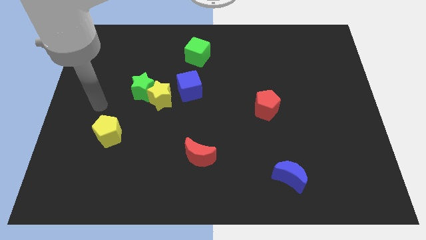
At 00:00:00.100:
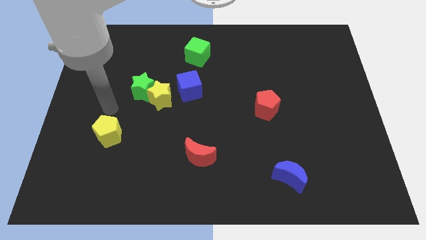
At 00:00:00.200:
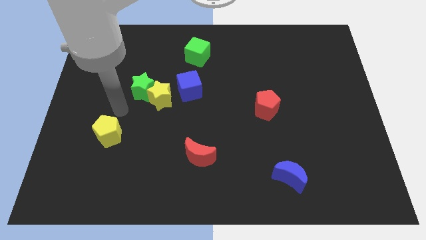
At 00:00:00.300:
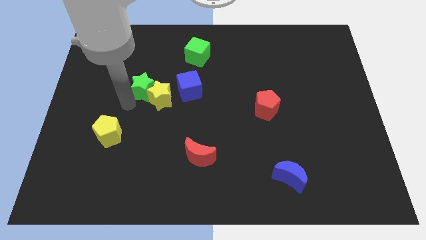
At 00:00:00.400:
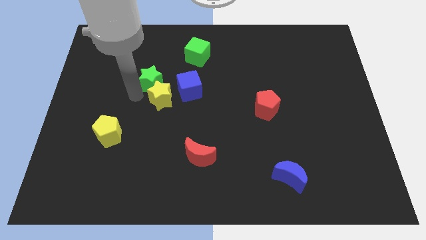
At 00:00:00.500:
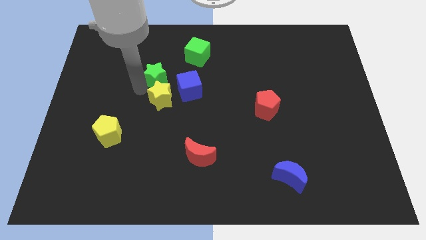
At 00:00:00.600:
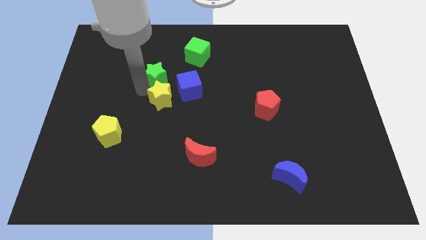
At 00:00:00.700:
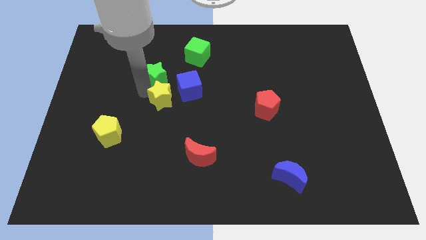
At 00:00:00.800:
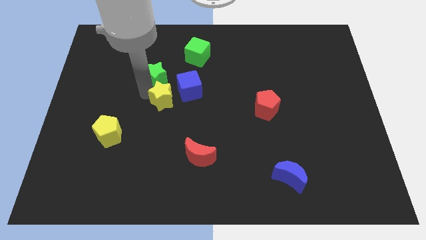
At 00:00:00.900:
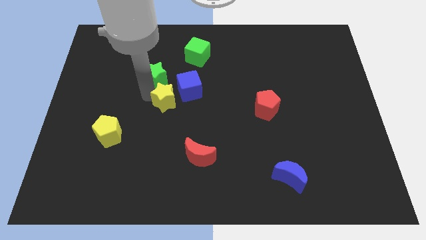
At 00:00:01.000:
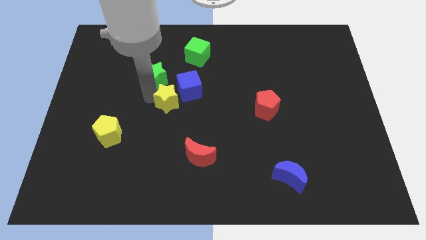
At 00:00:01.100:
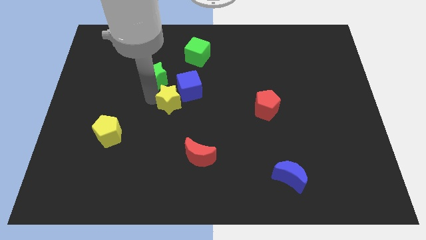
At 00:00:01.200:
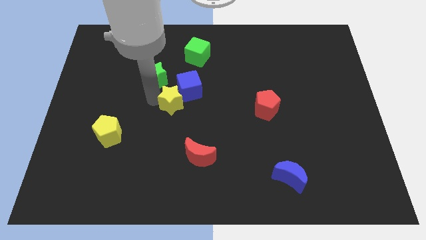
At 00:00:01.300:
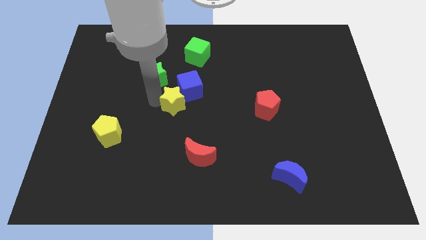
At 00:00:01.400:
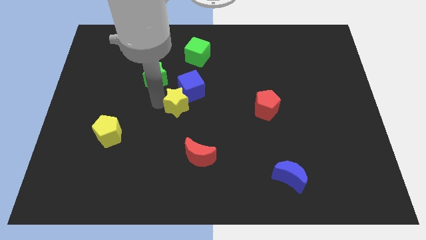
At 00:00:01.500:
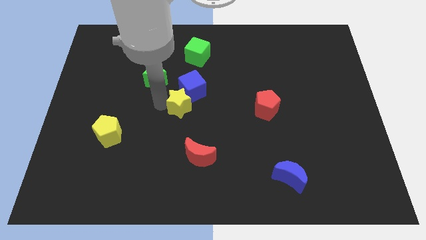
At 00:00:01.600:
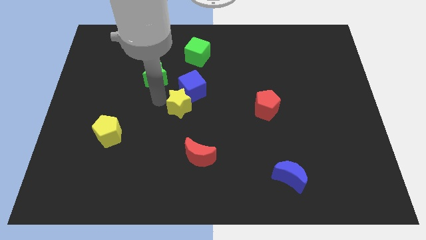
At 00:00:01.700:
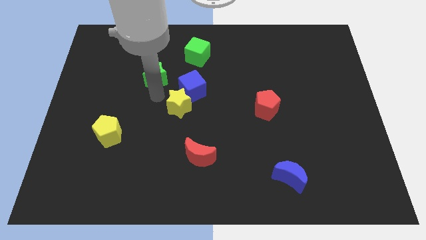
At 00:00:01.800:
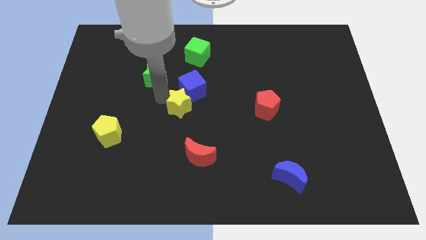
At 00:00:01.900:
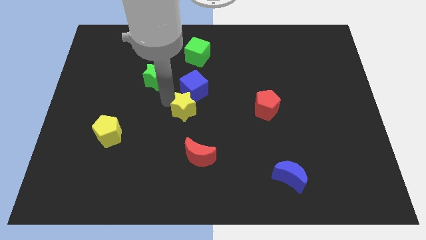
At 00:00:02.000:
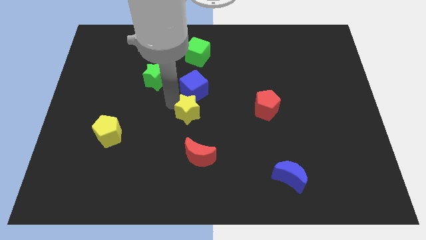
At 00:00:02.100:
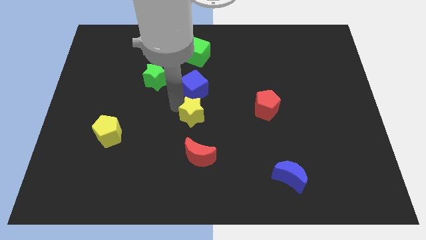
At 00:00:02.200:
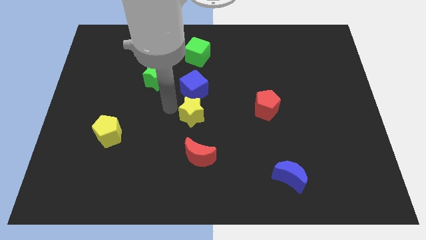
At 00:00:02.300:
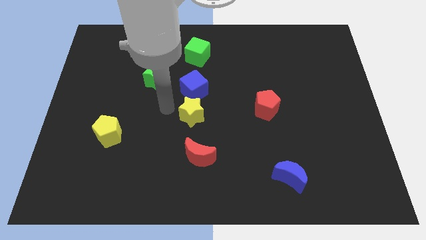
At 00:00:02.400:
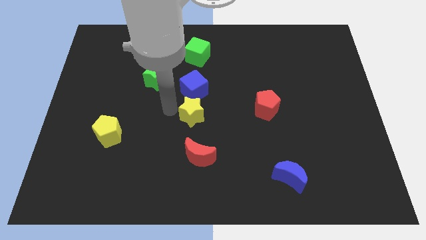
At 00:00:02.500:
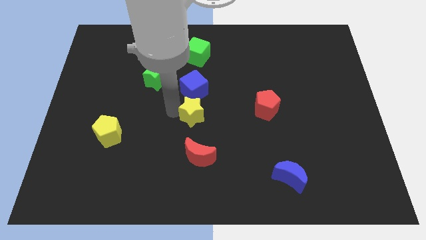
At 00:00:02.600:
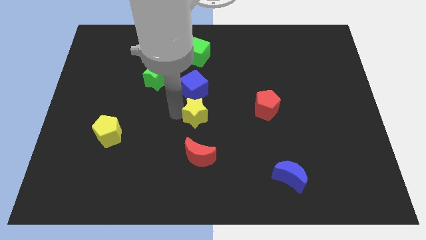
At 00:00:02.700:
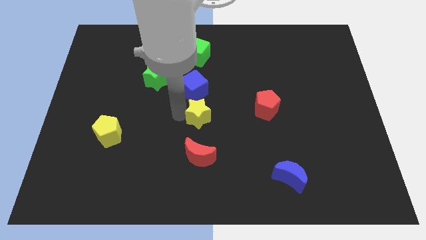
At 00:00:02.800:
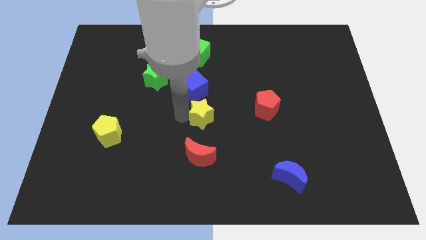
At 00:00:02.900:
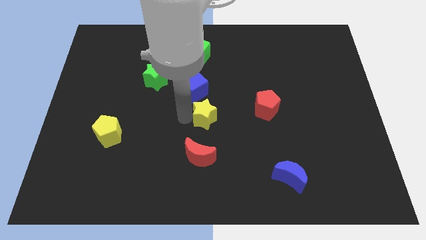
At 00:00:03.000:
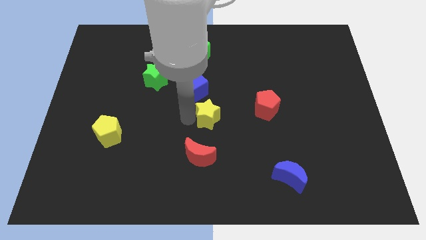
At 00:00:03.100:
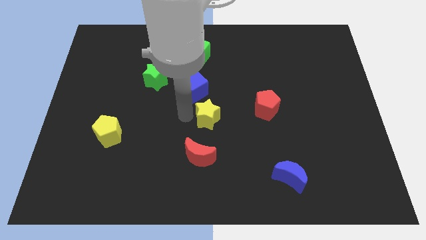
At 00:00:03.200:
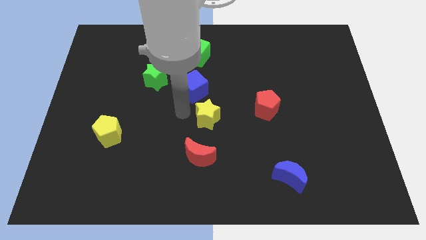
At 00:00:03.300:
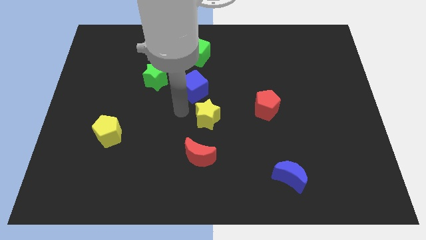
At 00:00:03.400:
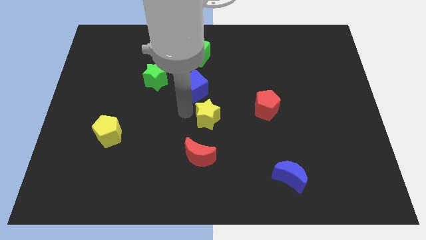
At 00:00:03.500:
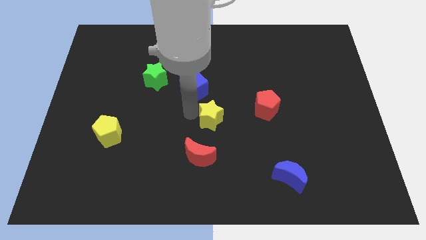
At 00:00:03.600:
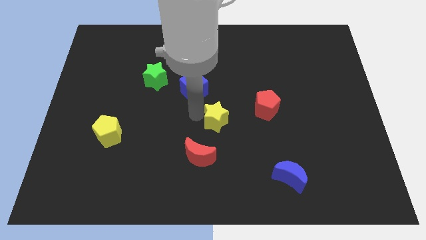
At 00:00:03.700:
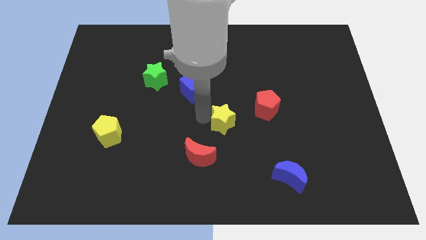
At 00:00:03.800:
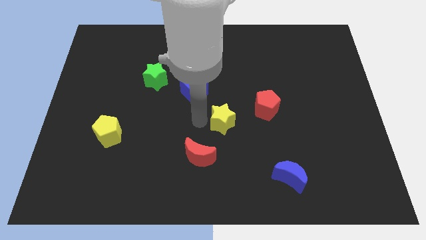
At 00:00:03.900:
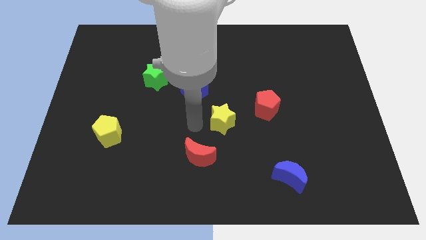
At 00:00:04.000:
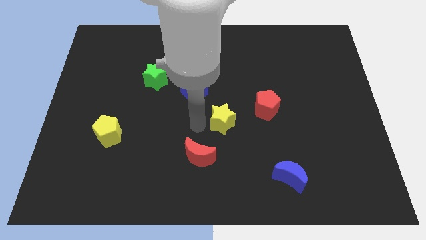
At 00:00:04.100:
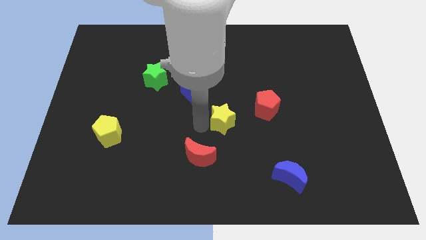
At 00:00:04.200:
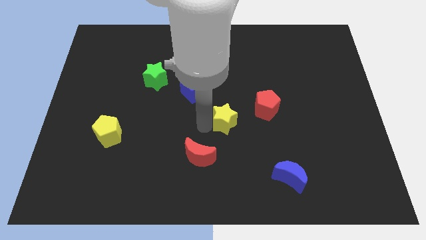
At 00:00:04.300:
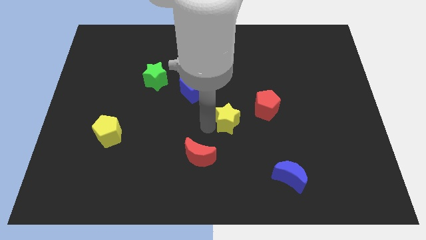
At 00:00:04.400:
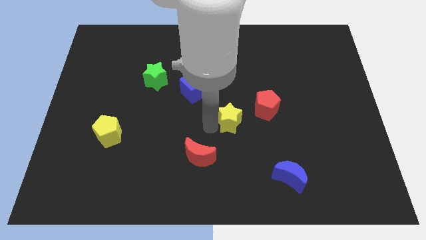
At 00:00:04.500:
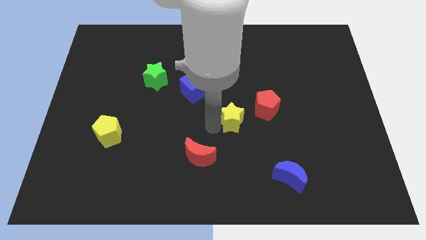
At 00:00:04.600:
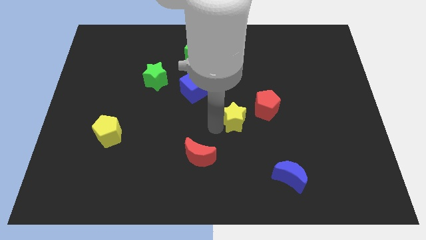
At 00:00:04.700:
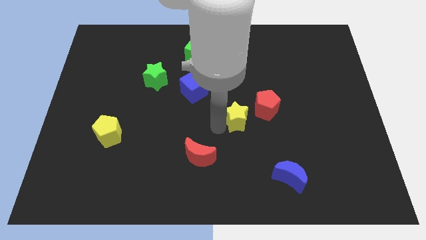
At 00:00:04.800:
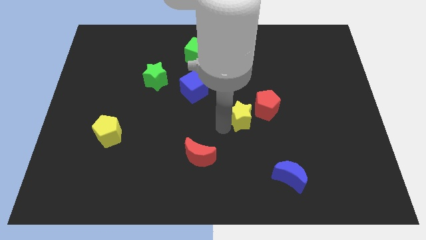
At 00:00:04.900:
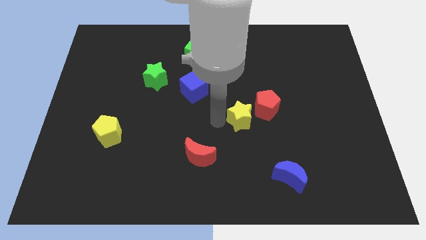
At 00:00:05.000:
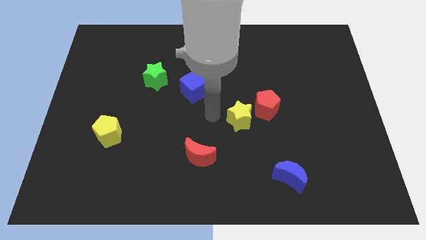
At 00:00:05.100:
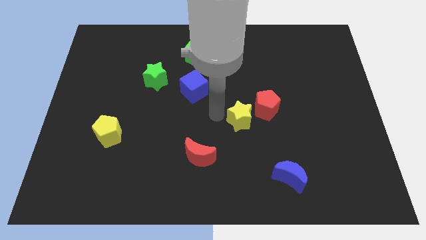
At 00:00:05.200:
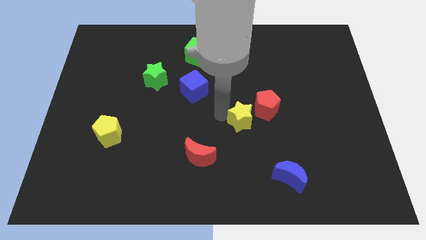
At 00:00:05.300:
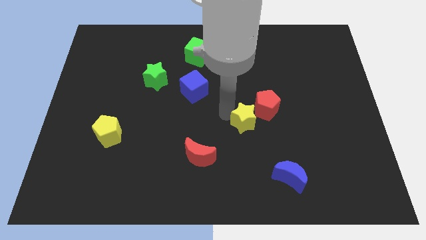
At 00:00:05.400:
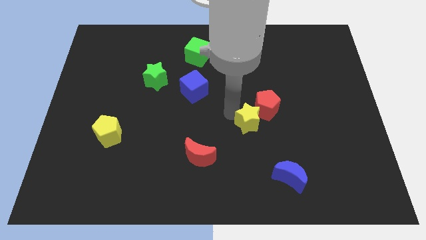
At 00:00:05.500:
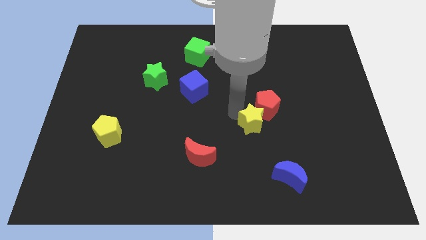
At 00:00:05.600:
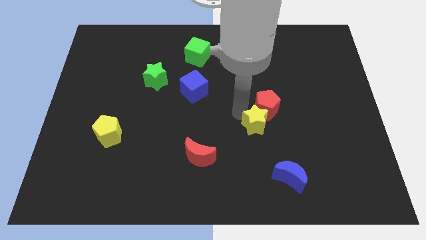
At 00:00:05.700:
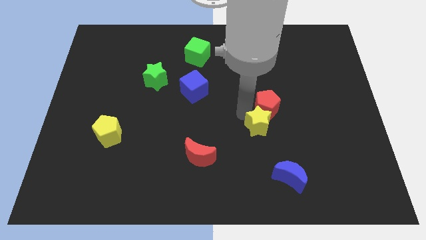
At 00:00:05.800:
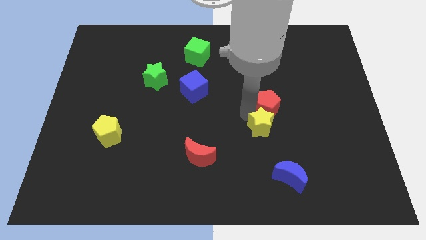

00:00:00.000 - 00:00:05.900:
put the yellow star diagonally down and to the right of the red pentagon
